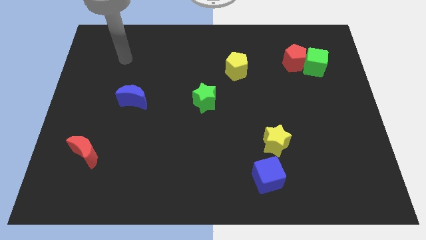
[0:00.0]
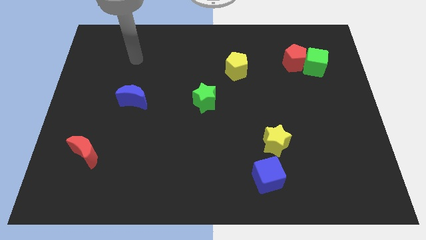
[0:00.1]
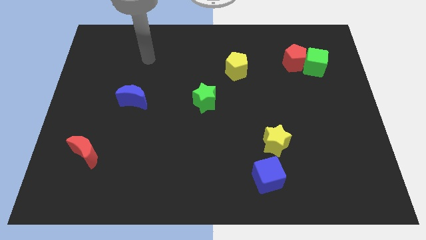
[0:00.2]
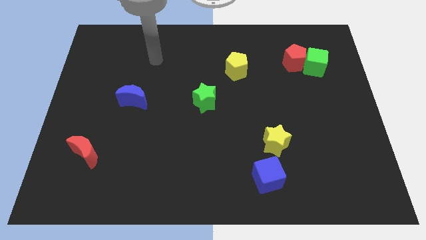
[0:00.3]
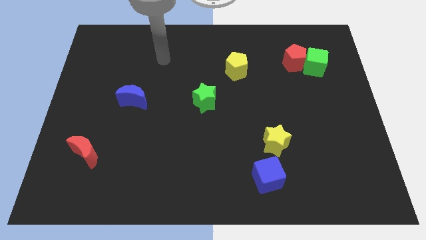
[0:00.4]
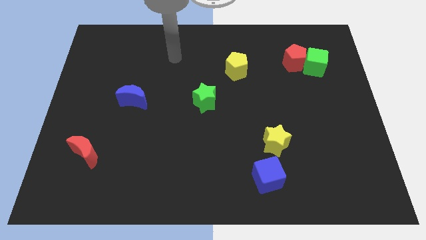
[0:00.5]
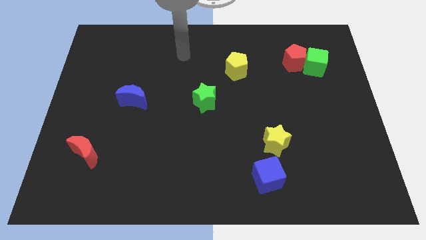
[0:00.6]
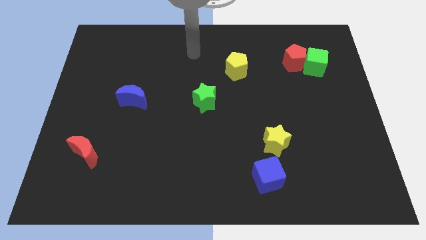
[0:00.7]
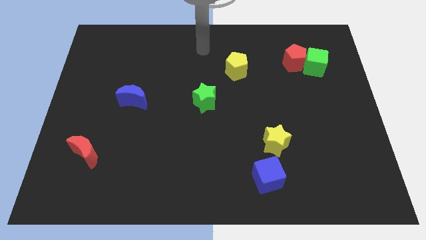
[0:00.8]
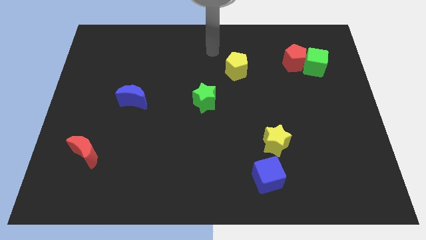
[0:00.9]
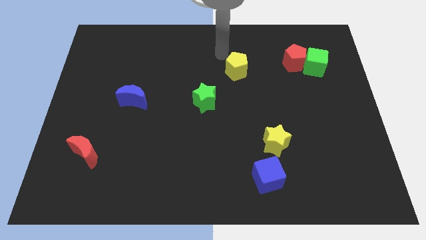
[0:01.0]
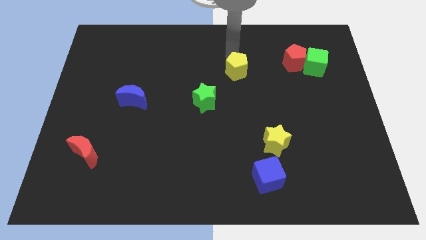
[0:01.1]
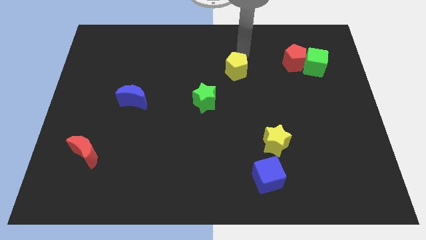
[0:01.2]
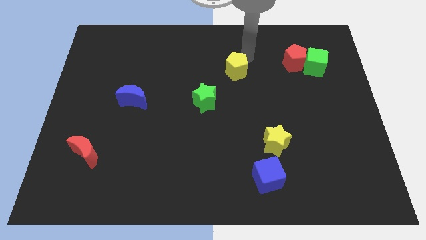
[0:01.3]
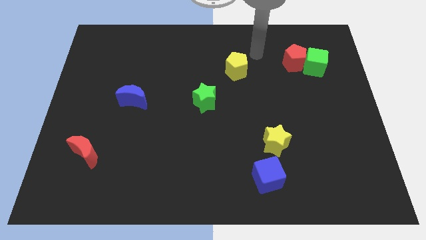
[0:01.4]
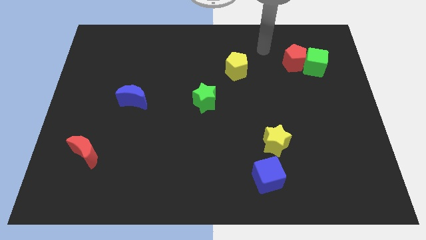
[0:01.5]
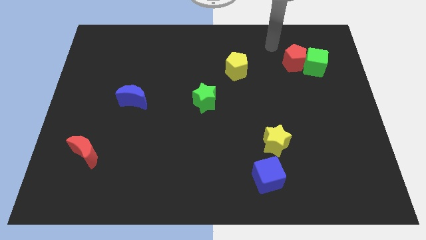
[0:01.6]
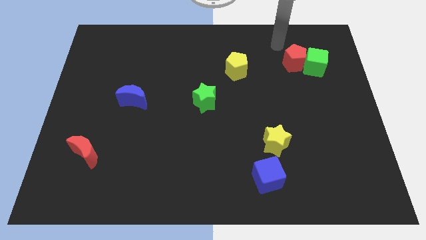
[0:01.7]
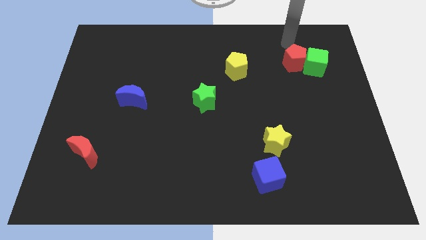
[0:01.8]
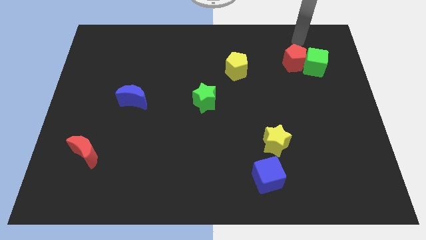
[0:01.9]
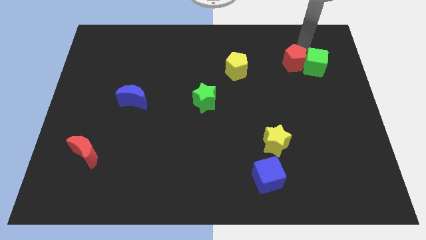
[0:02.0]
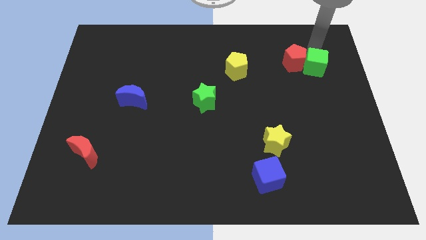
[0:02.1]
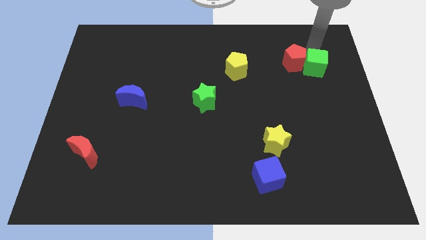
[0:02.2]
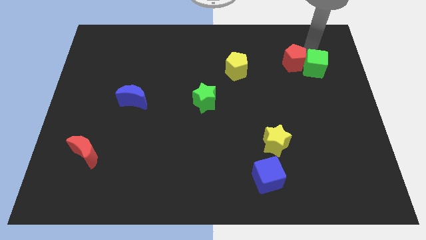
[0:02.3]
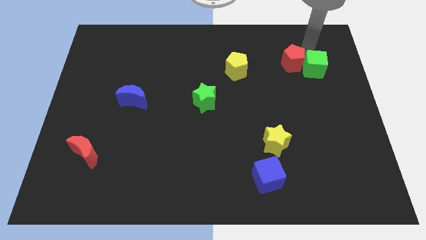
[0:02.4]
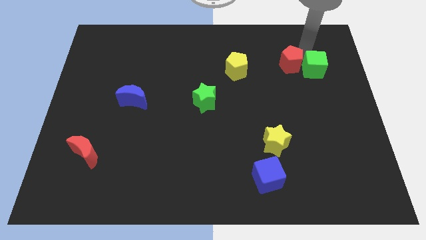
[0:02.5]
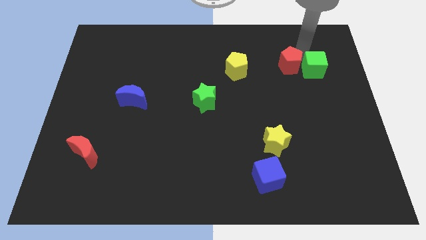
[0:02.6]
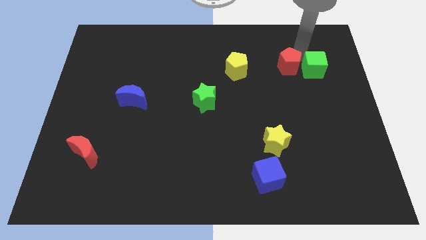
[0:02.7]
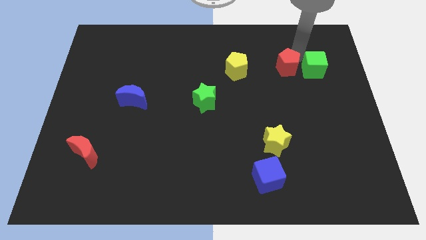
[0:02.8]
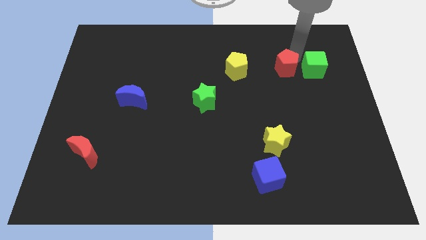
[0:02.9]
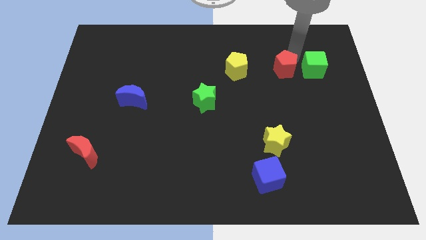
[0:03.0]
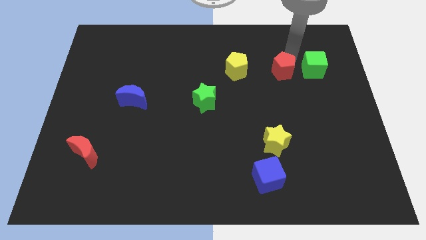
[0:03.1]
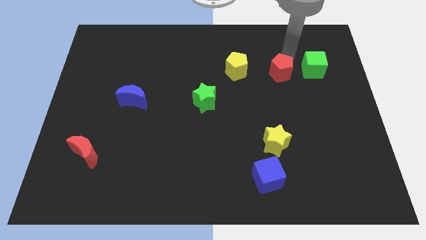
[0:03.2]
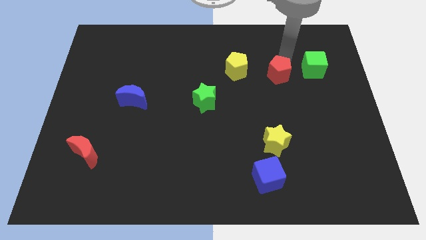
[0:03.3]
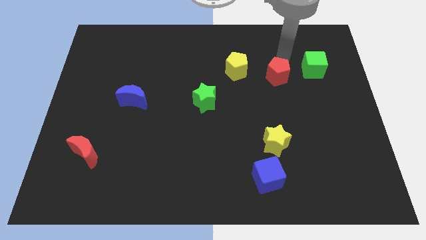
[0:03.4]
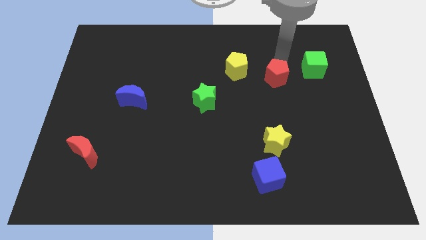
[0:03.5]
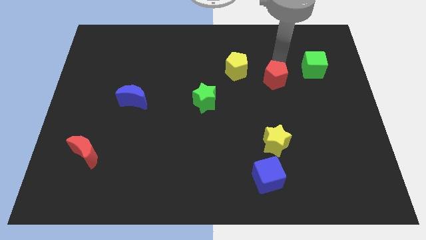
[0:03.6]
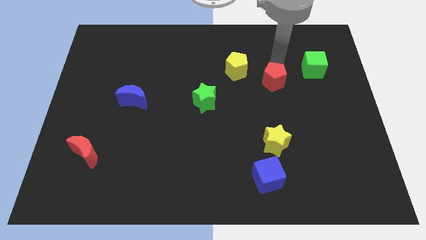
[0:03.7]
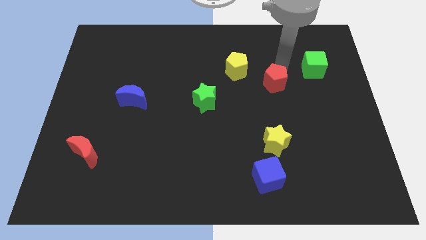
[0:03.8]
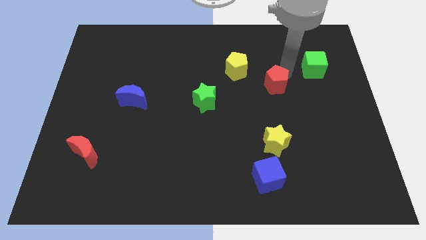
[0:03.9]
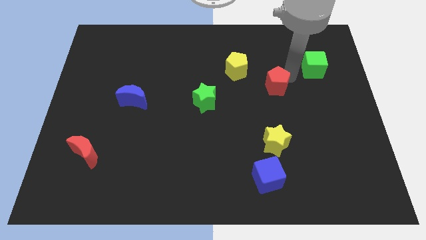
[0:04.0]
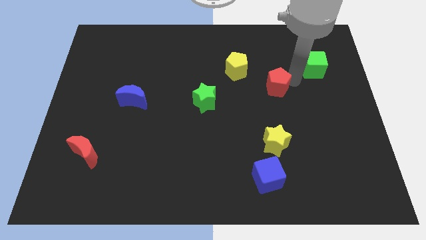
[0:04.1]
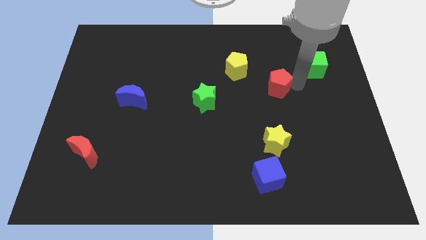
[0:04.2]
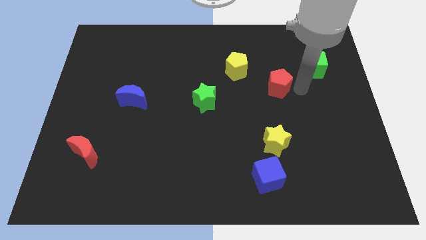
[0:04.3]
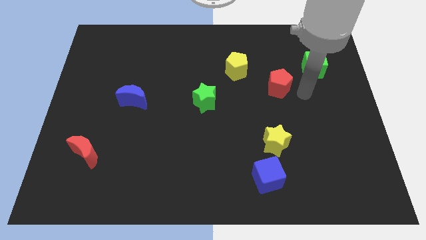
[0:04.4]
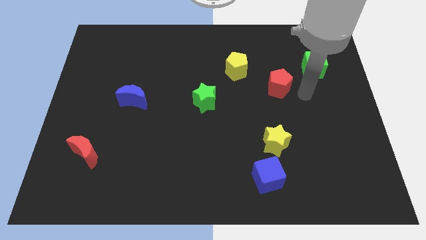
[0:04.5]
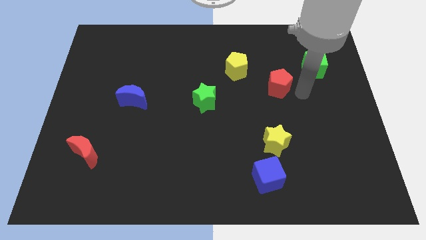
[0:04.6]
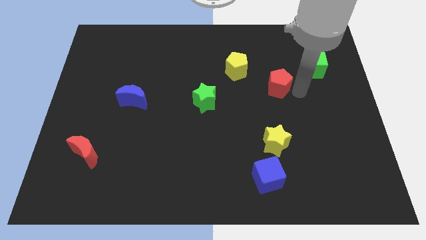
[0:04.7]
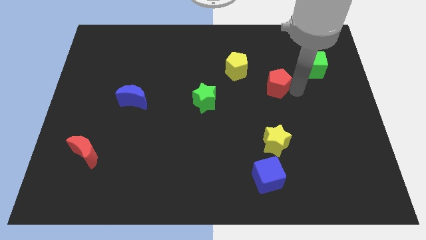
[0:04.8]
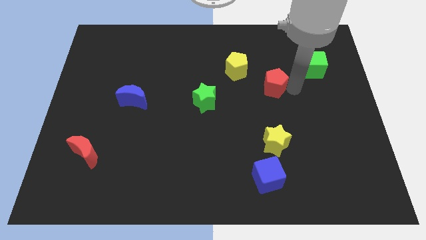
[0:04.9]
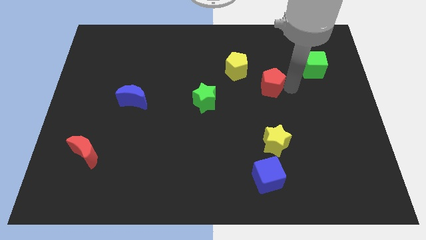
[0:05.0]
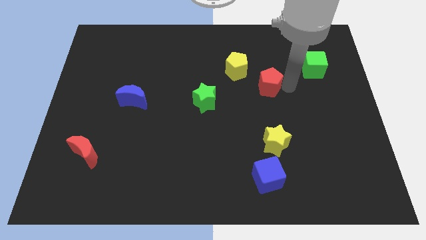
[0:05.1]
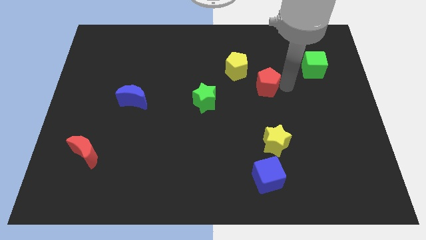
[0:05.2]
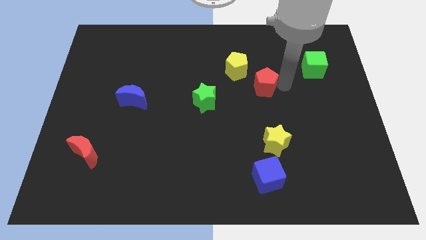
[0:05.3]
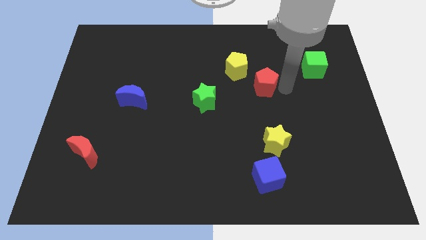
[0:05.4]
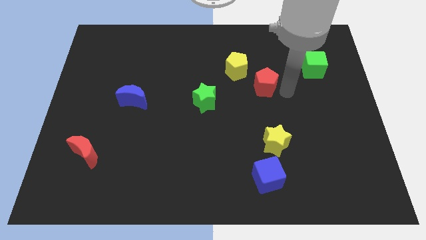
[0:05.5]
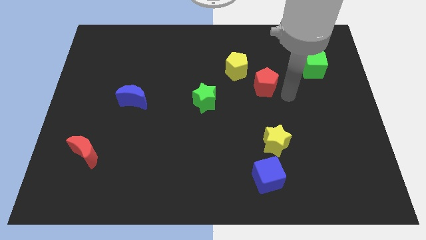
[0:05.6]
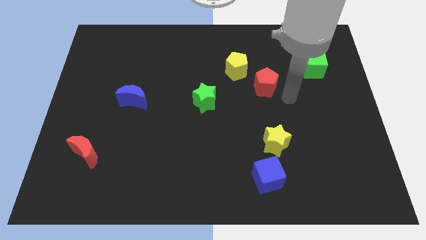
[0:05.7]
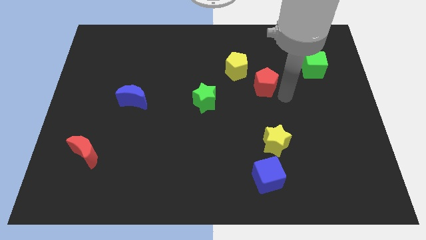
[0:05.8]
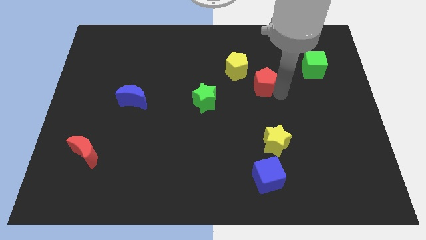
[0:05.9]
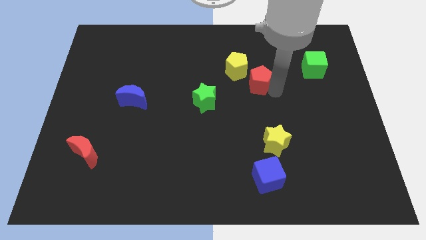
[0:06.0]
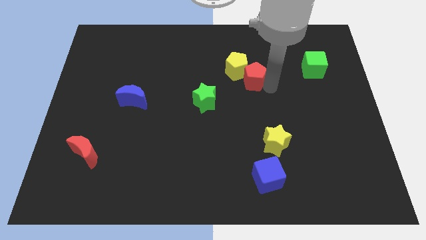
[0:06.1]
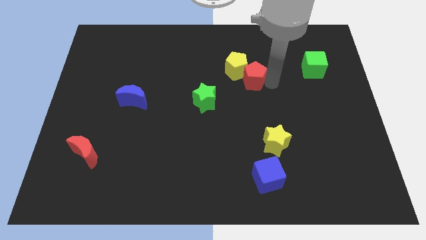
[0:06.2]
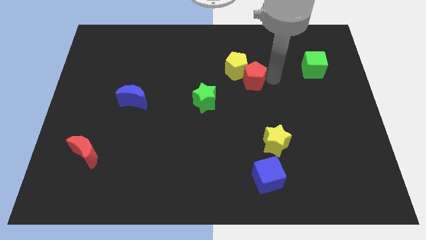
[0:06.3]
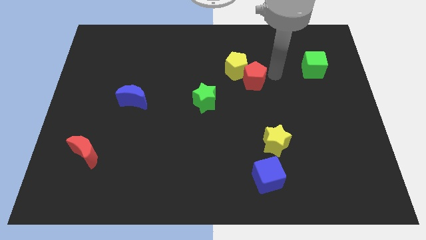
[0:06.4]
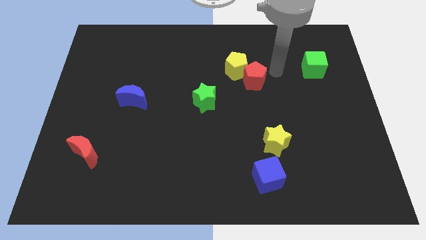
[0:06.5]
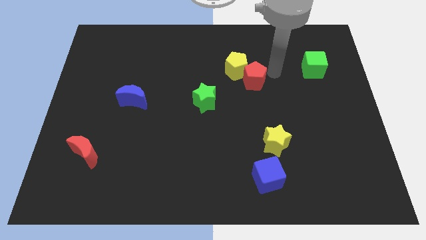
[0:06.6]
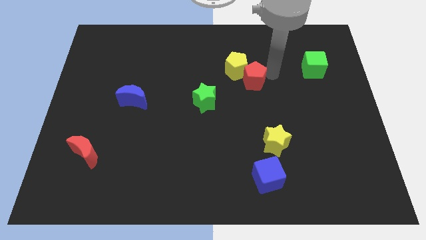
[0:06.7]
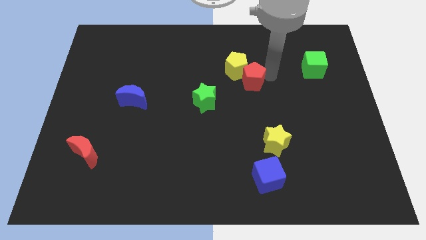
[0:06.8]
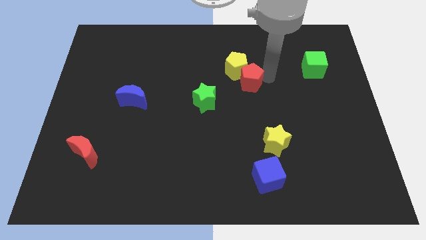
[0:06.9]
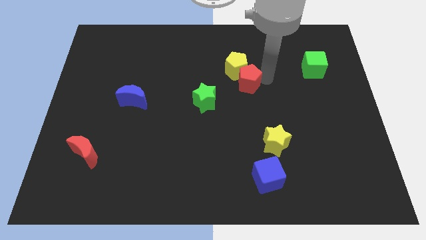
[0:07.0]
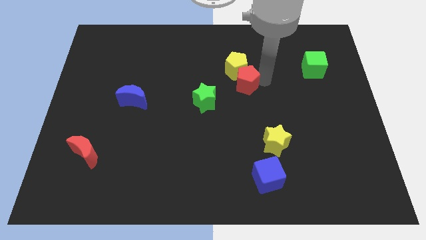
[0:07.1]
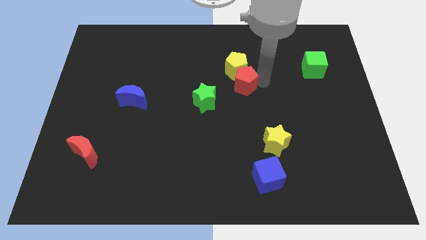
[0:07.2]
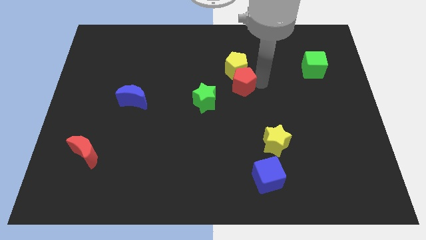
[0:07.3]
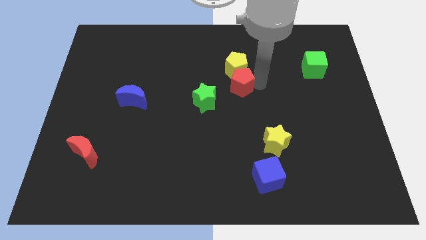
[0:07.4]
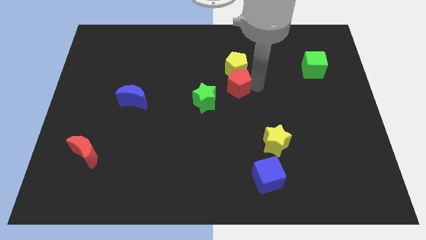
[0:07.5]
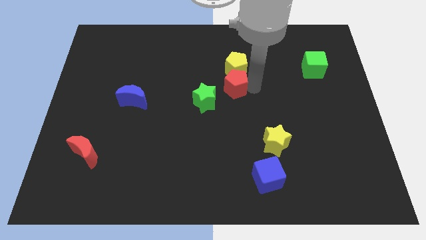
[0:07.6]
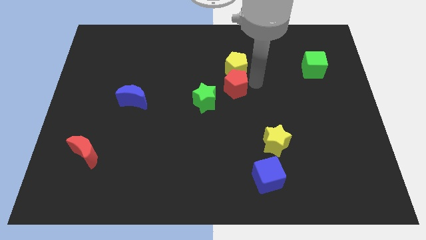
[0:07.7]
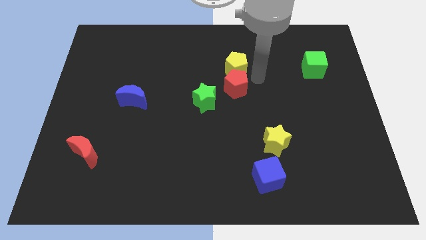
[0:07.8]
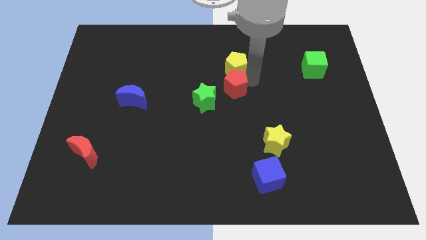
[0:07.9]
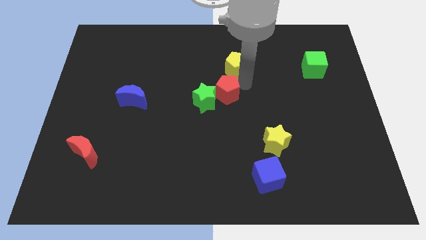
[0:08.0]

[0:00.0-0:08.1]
move the red pentagon next to the green star
